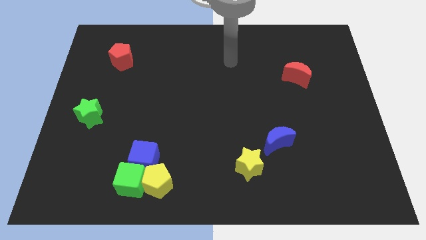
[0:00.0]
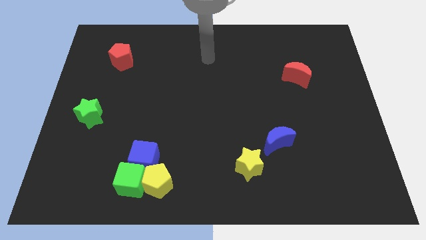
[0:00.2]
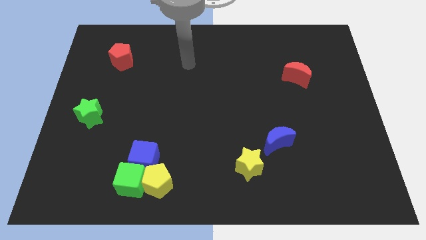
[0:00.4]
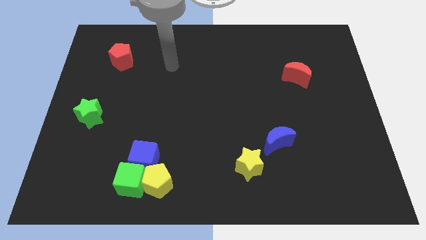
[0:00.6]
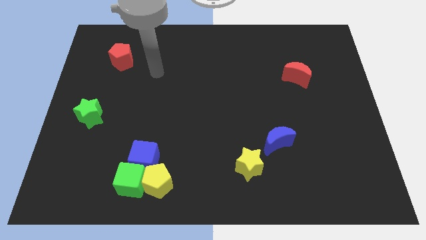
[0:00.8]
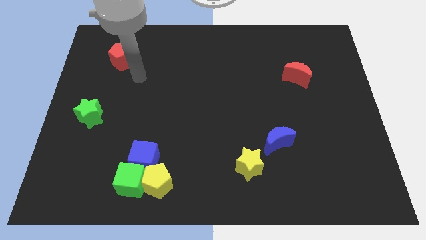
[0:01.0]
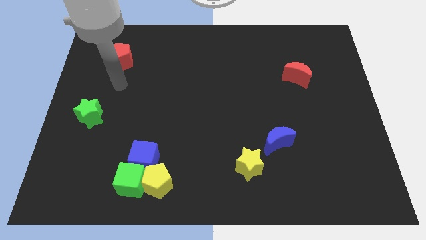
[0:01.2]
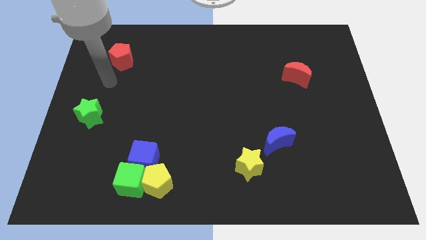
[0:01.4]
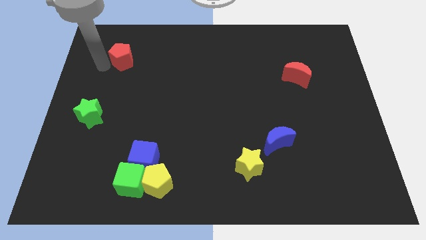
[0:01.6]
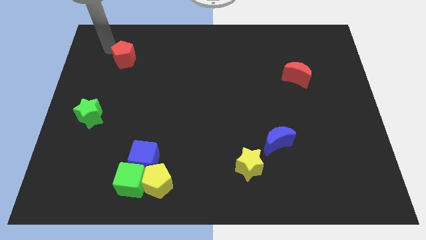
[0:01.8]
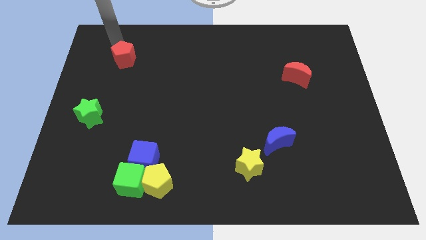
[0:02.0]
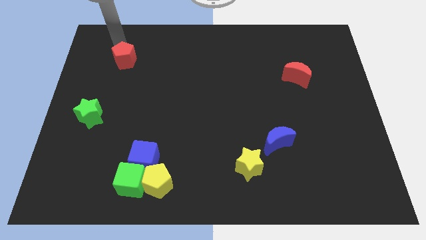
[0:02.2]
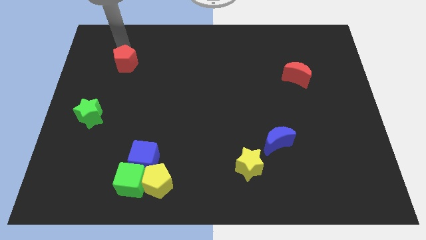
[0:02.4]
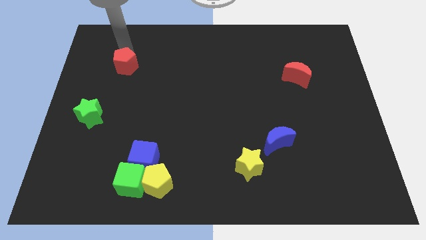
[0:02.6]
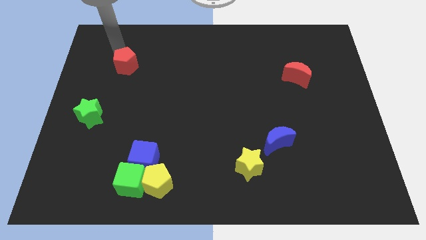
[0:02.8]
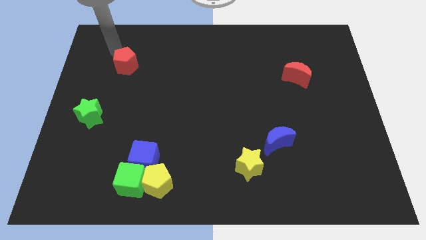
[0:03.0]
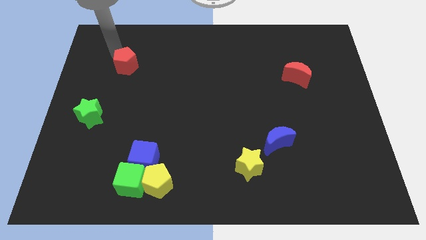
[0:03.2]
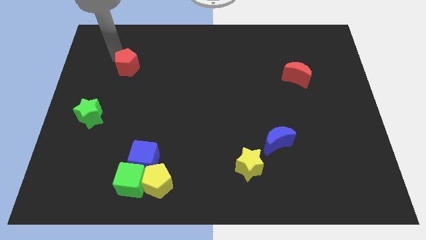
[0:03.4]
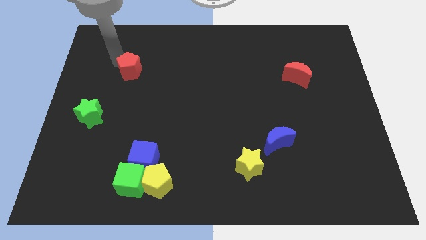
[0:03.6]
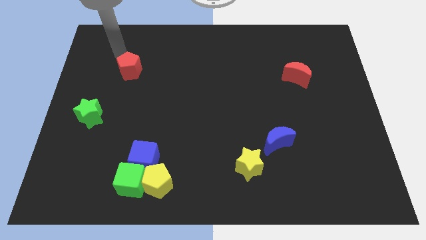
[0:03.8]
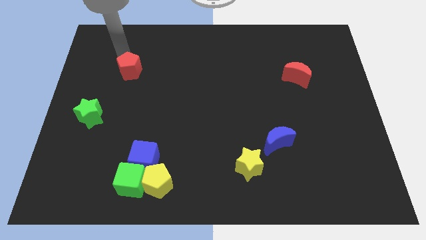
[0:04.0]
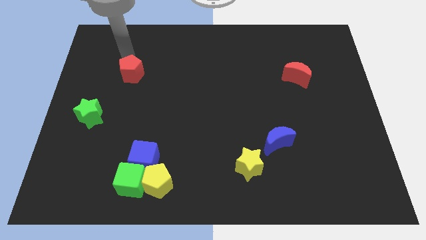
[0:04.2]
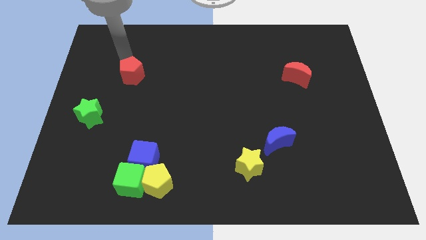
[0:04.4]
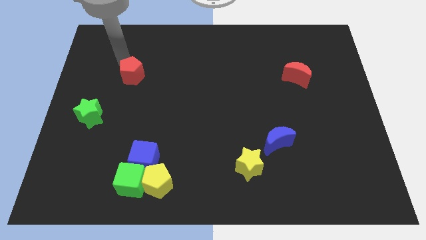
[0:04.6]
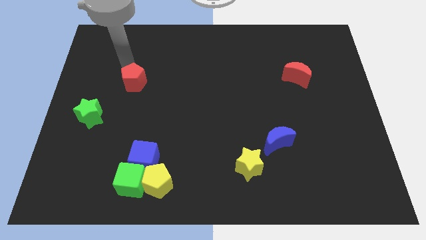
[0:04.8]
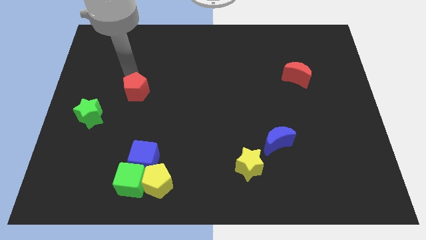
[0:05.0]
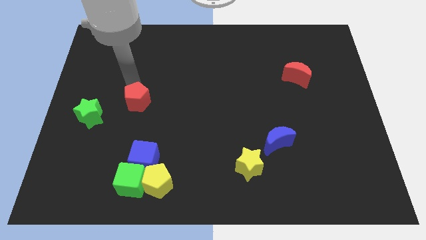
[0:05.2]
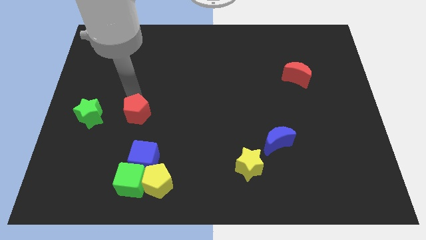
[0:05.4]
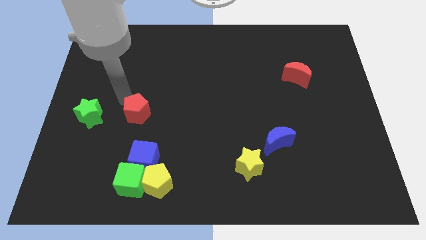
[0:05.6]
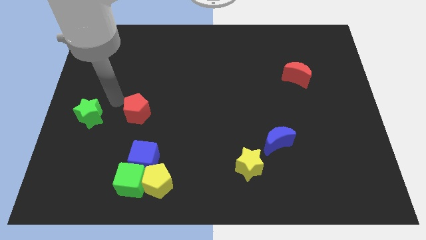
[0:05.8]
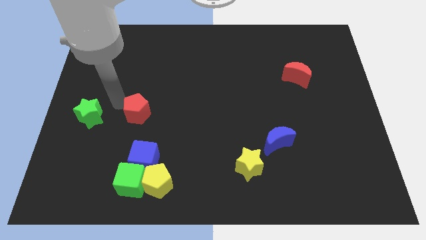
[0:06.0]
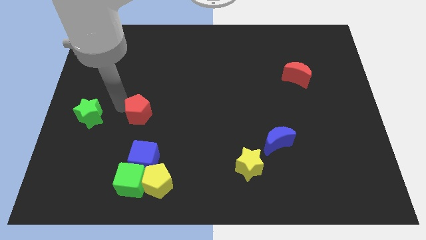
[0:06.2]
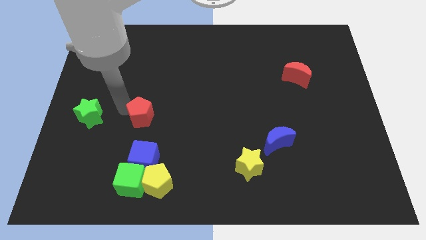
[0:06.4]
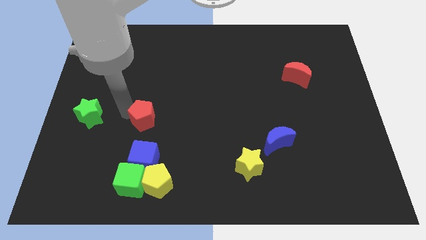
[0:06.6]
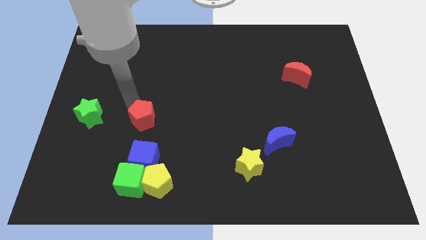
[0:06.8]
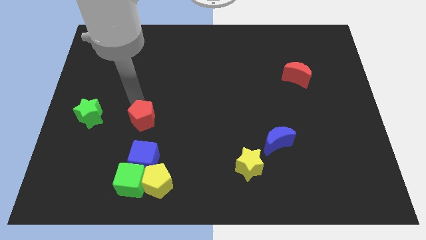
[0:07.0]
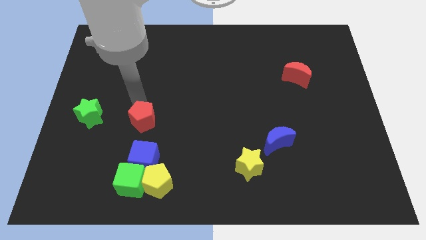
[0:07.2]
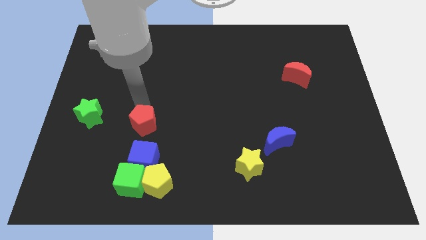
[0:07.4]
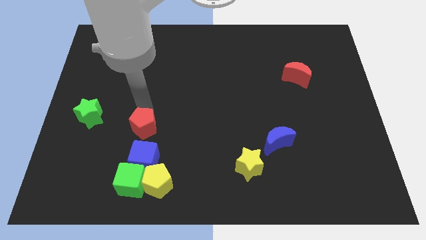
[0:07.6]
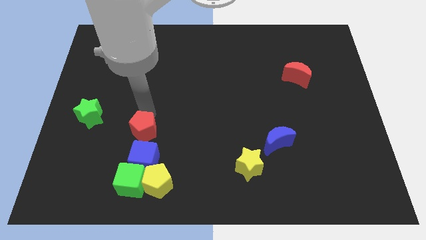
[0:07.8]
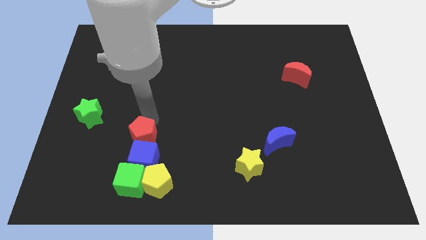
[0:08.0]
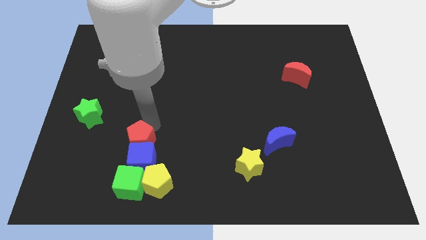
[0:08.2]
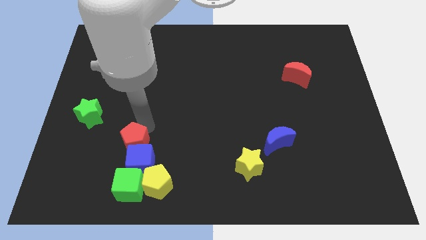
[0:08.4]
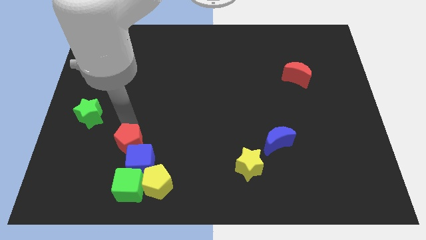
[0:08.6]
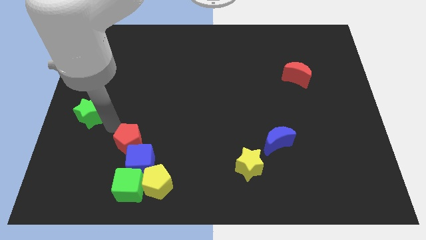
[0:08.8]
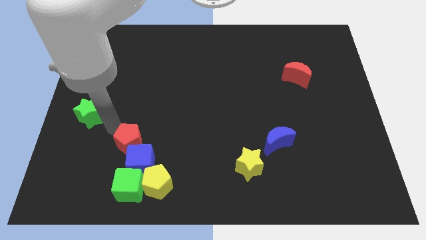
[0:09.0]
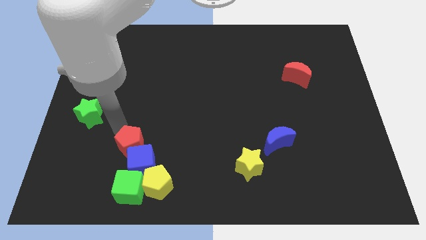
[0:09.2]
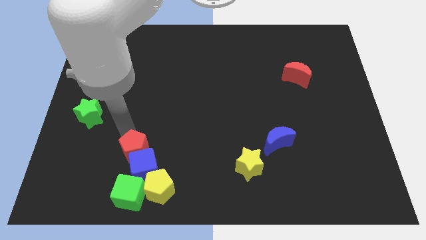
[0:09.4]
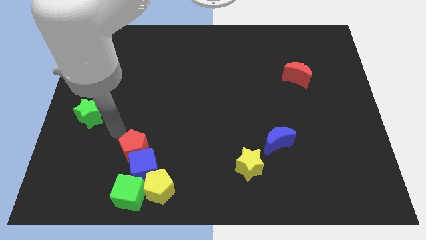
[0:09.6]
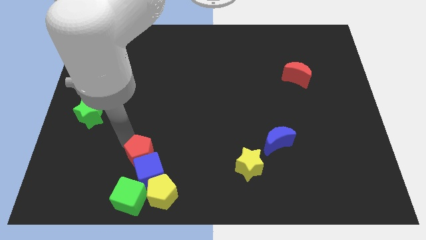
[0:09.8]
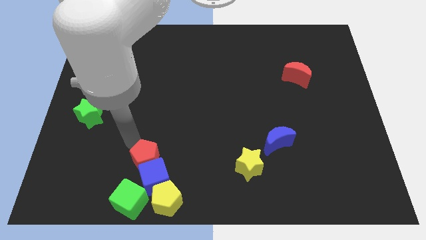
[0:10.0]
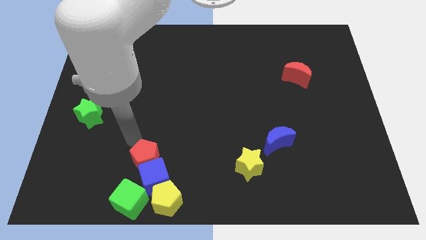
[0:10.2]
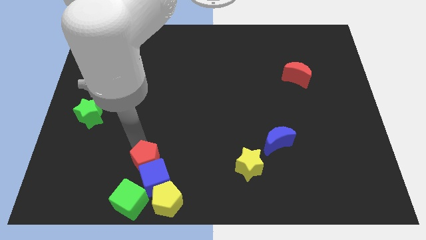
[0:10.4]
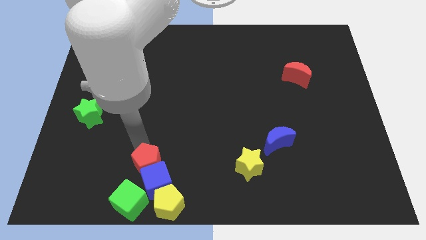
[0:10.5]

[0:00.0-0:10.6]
move the red pentagon to the top right of the green cube

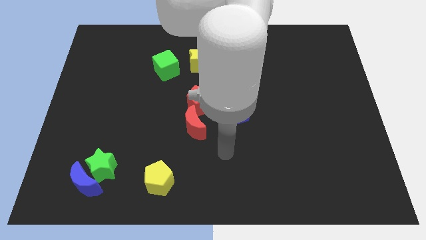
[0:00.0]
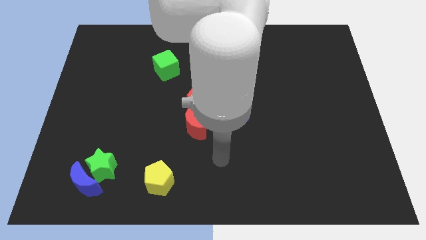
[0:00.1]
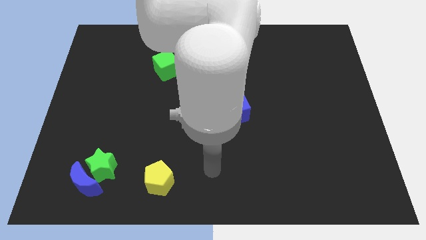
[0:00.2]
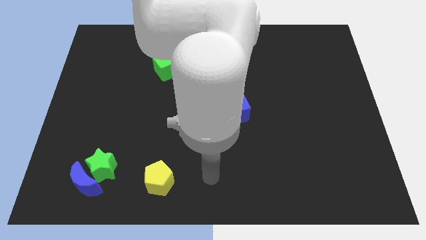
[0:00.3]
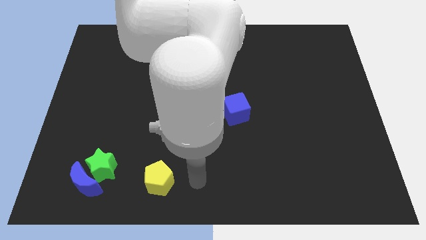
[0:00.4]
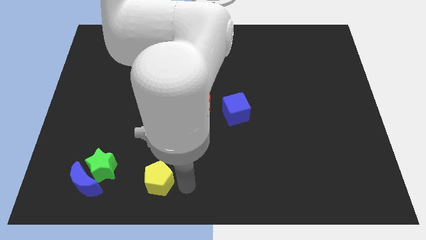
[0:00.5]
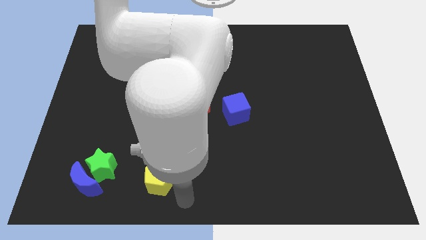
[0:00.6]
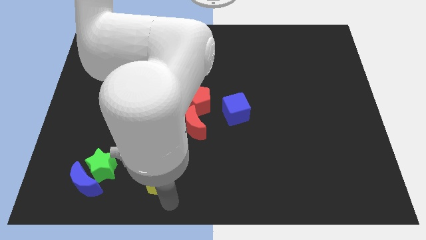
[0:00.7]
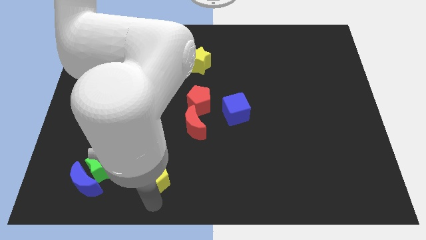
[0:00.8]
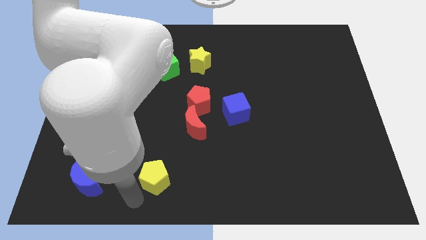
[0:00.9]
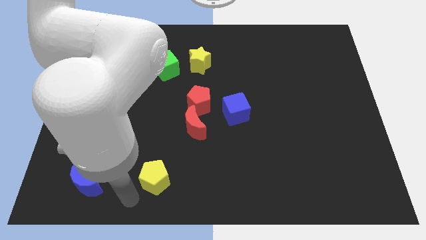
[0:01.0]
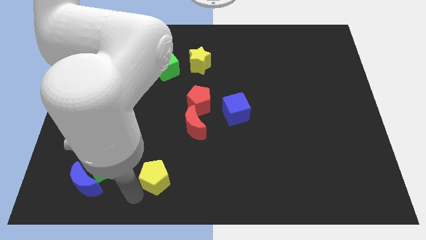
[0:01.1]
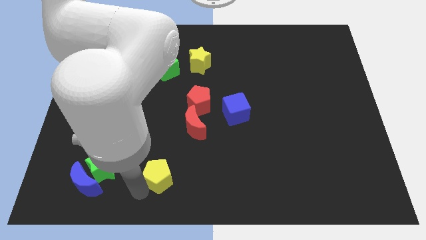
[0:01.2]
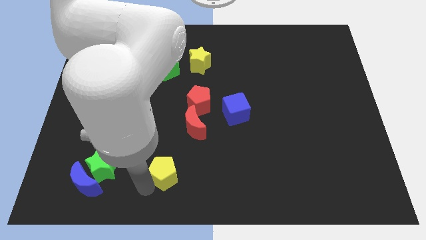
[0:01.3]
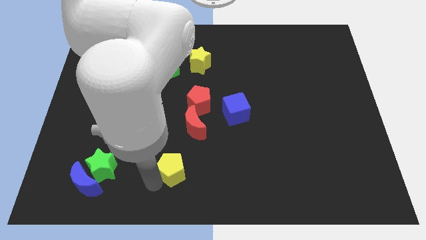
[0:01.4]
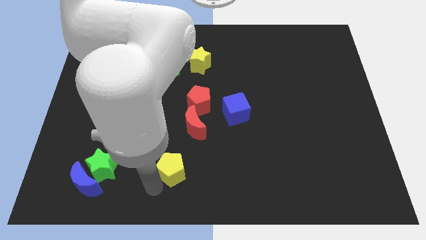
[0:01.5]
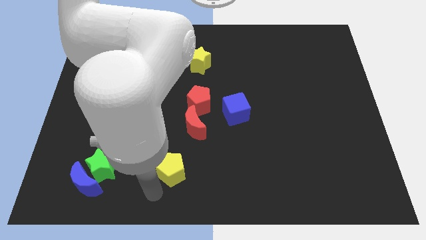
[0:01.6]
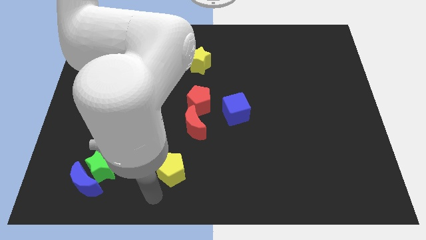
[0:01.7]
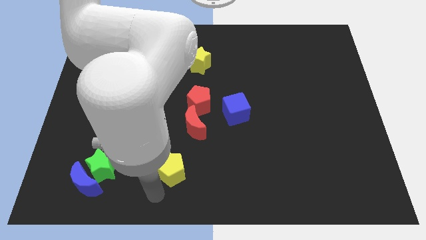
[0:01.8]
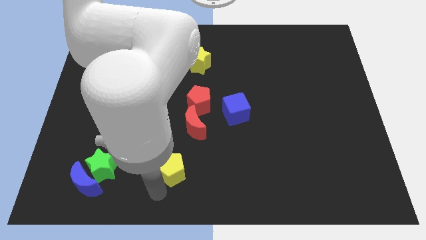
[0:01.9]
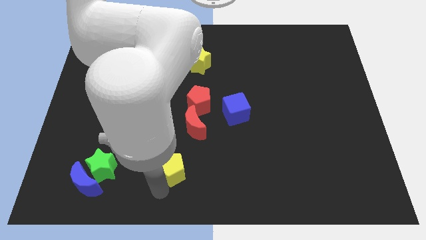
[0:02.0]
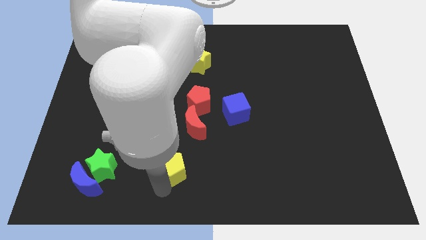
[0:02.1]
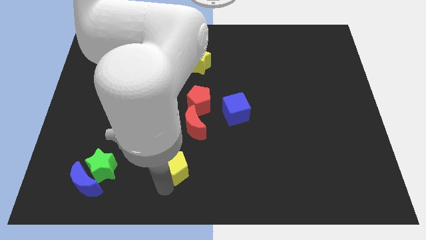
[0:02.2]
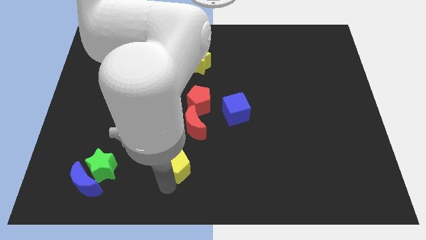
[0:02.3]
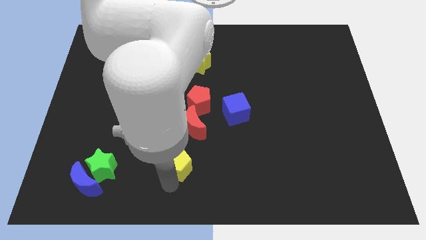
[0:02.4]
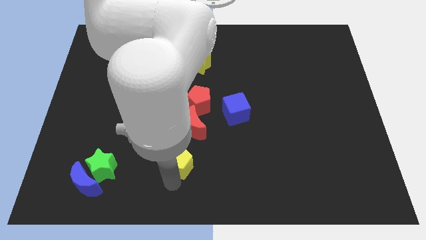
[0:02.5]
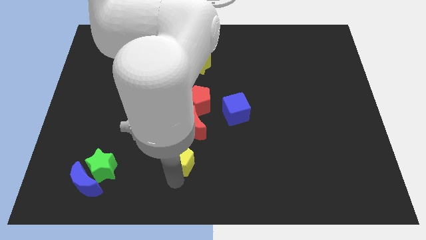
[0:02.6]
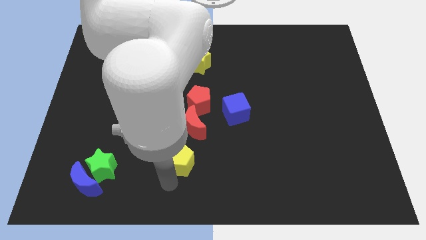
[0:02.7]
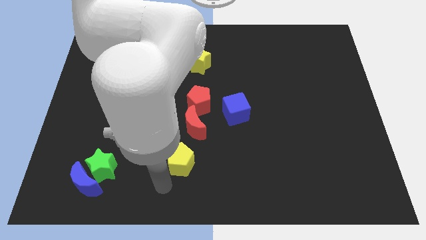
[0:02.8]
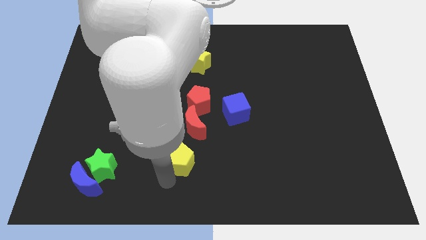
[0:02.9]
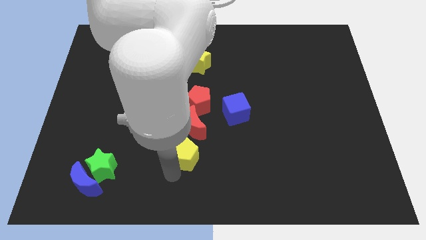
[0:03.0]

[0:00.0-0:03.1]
put the yellow pentagon to the bottom of the red pentagon
